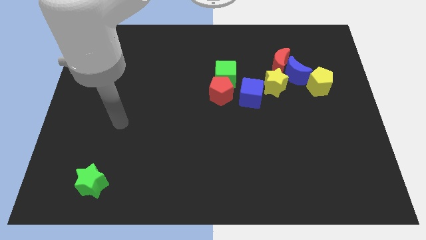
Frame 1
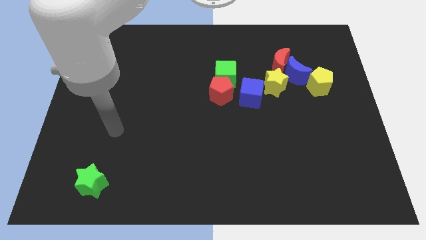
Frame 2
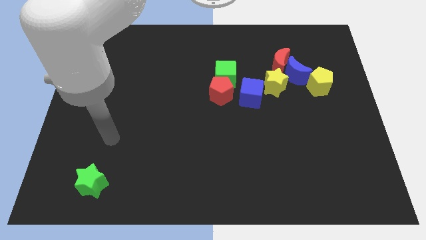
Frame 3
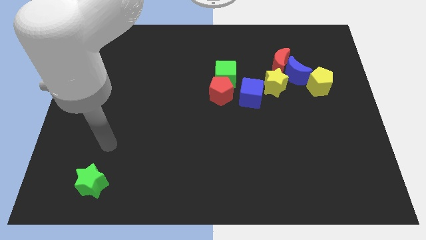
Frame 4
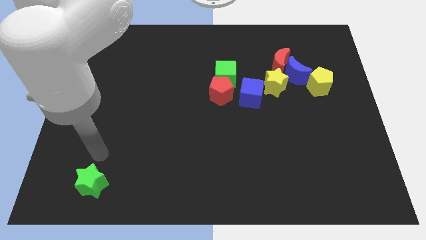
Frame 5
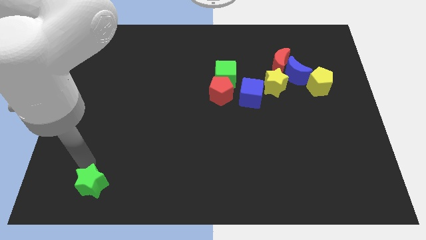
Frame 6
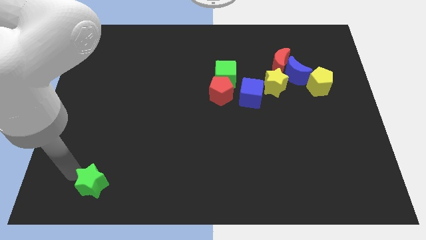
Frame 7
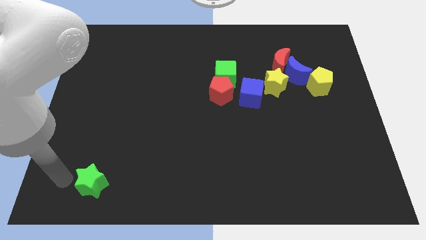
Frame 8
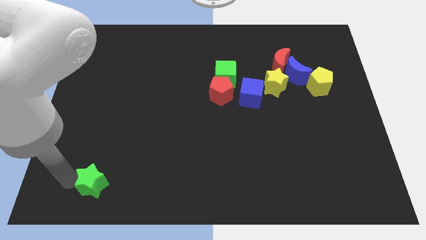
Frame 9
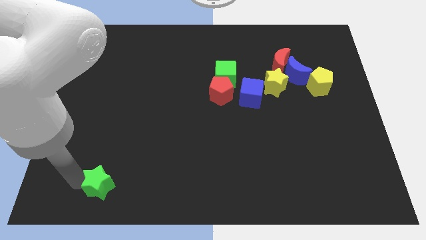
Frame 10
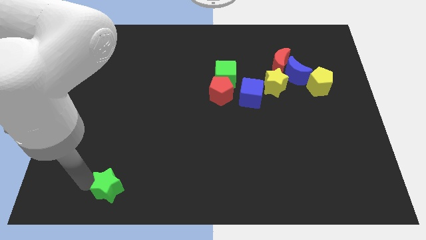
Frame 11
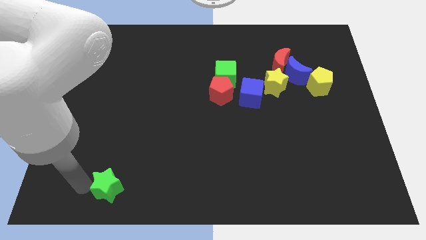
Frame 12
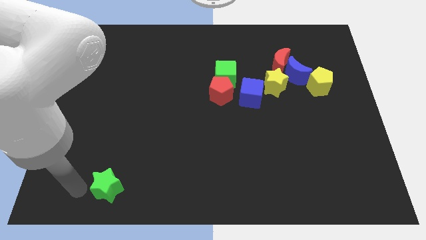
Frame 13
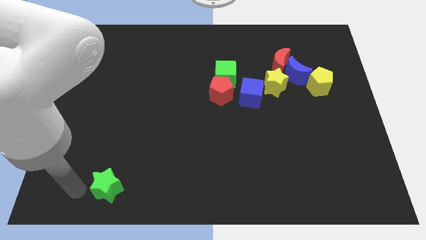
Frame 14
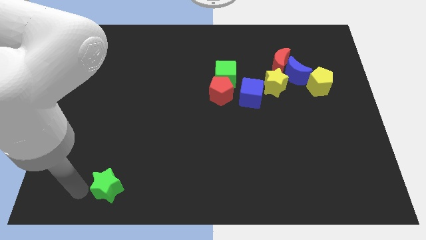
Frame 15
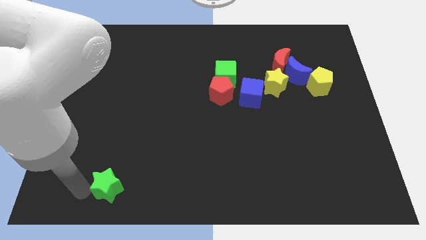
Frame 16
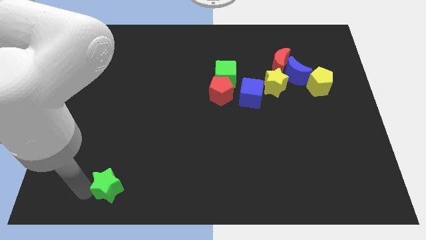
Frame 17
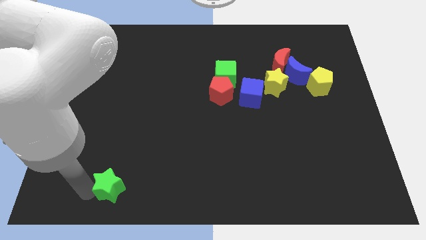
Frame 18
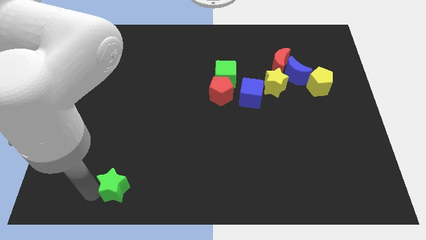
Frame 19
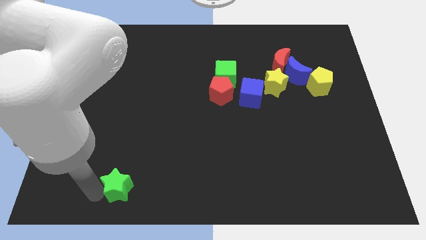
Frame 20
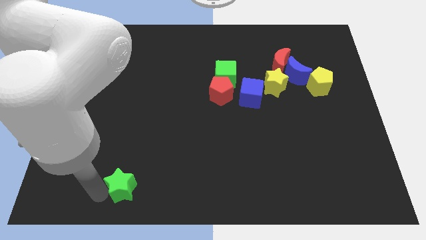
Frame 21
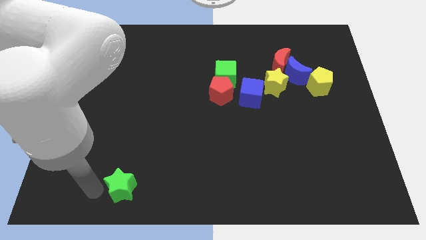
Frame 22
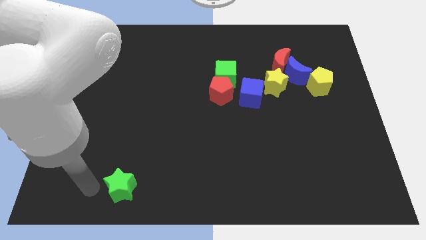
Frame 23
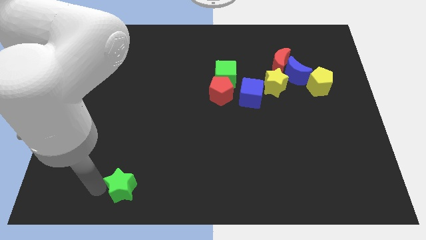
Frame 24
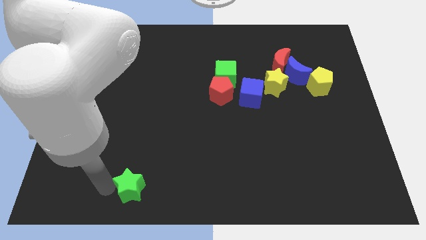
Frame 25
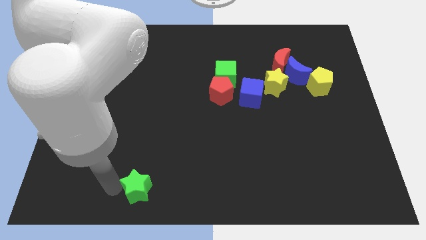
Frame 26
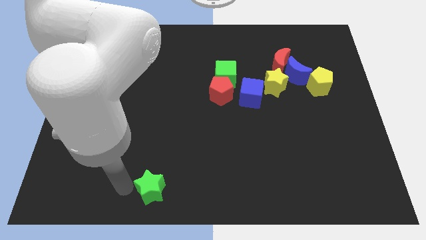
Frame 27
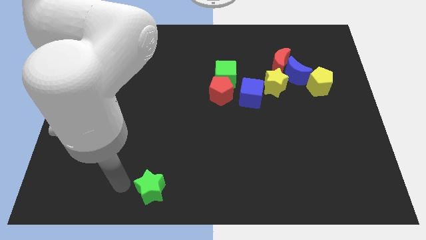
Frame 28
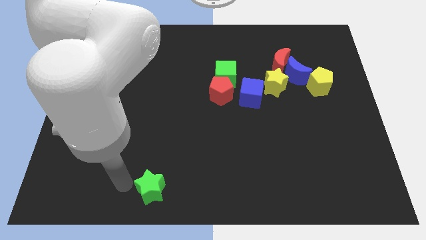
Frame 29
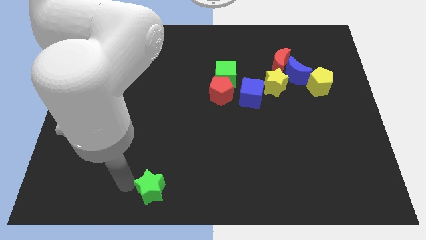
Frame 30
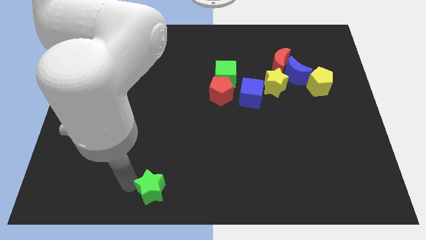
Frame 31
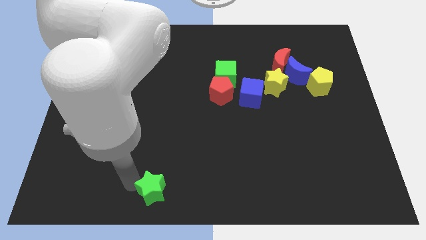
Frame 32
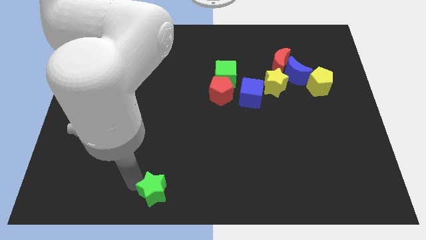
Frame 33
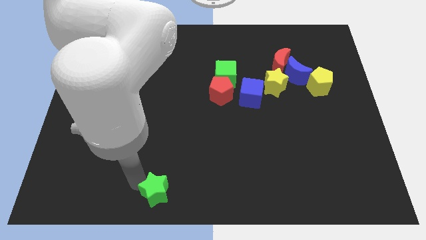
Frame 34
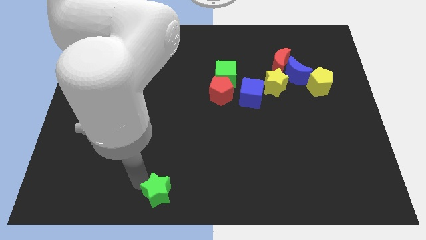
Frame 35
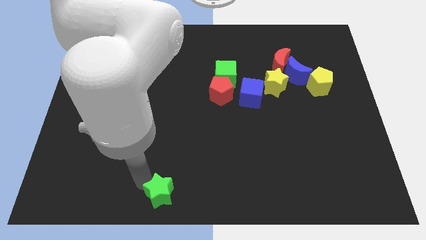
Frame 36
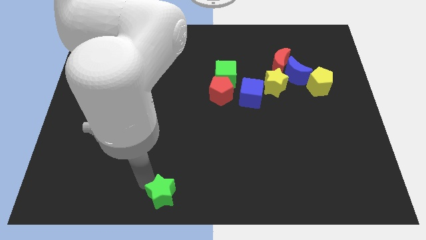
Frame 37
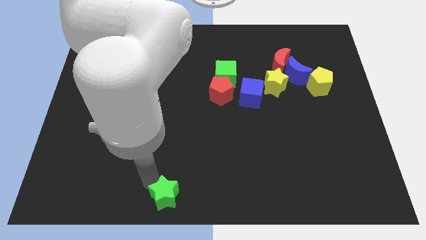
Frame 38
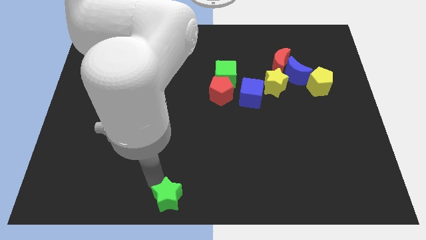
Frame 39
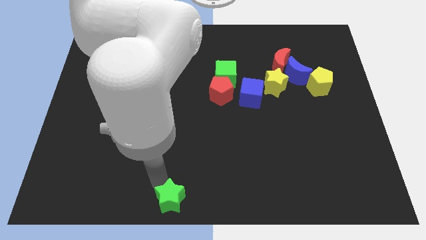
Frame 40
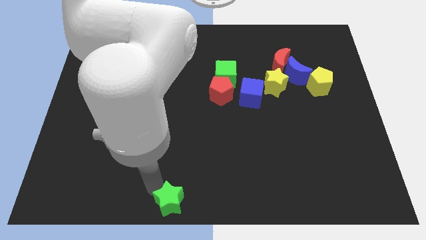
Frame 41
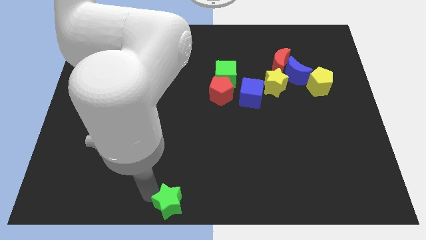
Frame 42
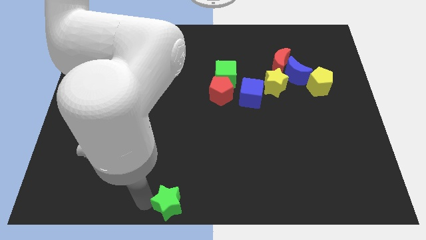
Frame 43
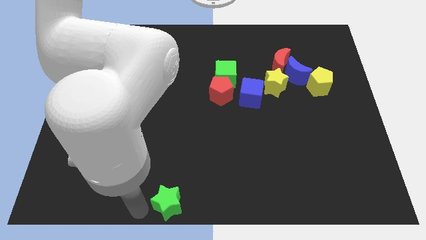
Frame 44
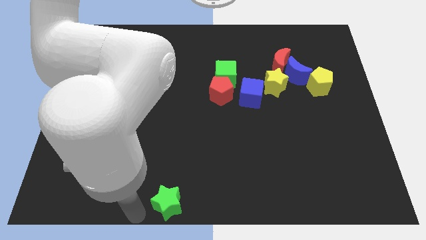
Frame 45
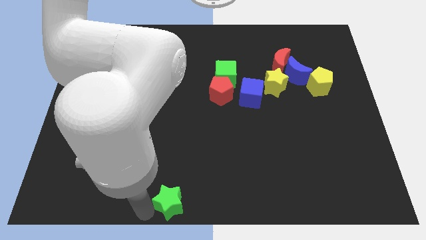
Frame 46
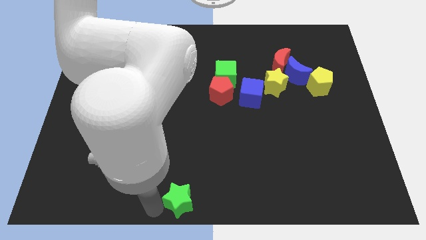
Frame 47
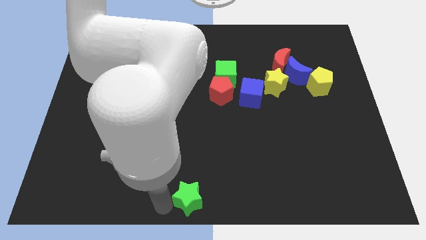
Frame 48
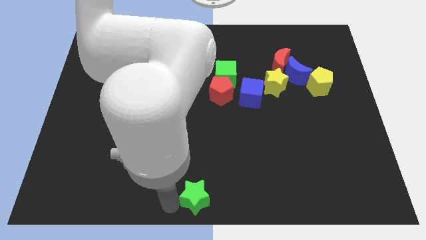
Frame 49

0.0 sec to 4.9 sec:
push the green star to the right

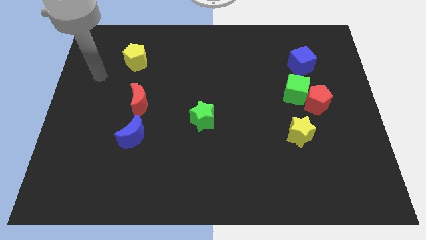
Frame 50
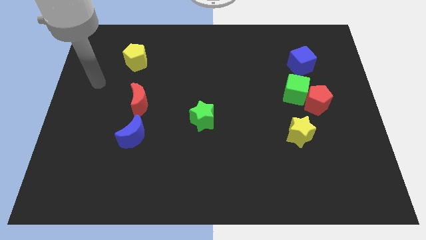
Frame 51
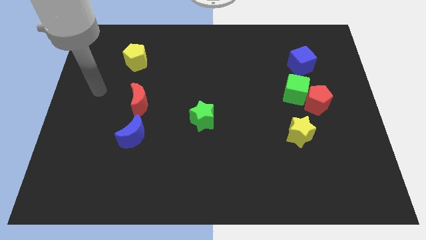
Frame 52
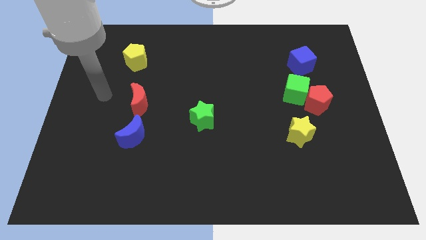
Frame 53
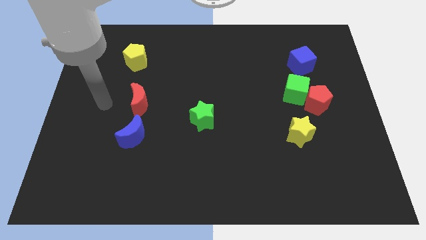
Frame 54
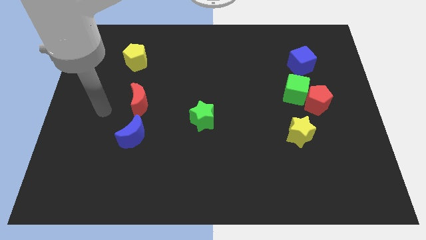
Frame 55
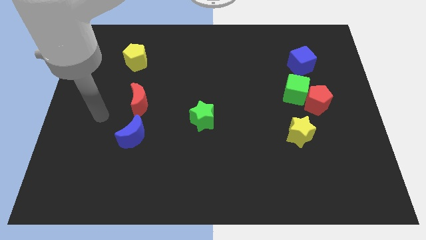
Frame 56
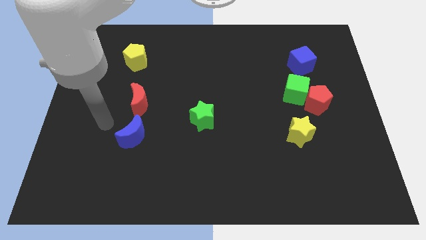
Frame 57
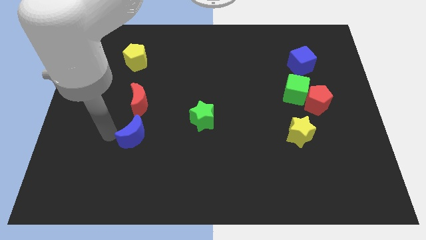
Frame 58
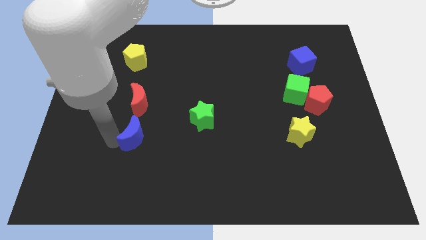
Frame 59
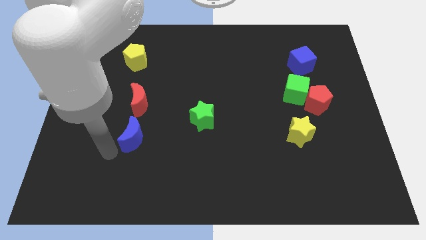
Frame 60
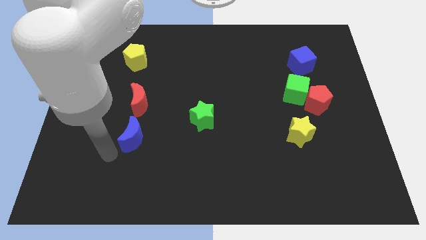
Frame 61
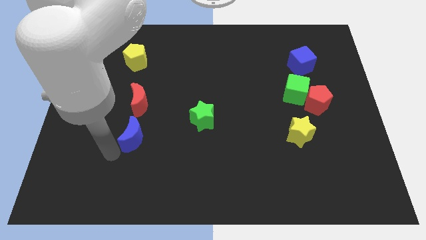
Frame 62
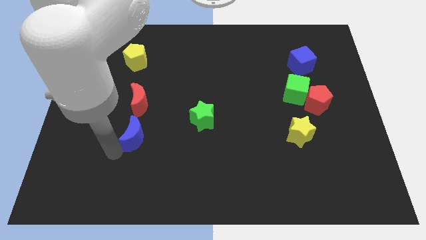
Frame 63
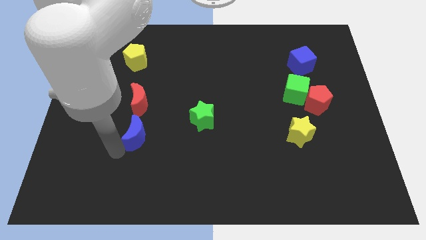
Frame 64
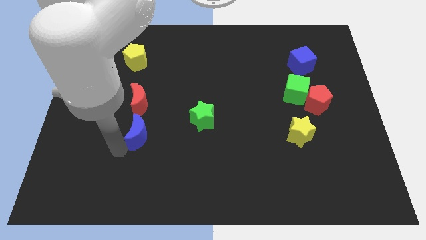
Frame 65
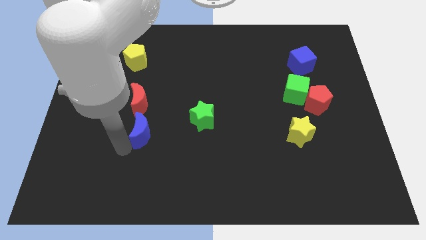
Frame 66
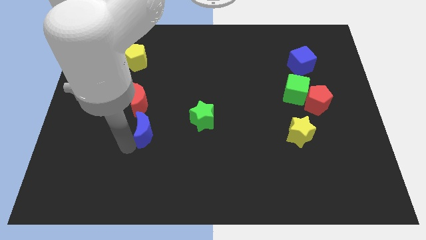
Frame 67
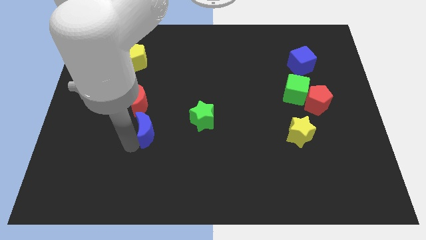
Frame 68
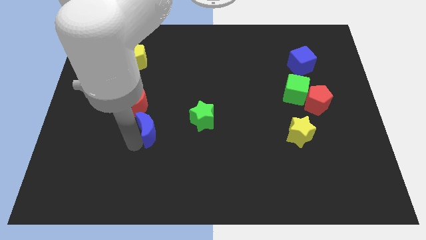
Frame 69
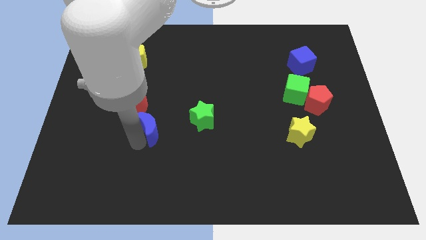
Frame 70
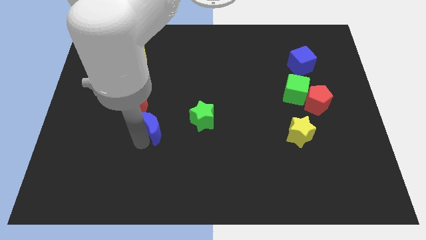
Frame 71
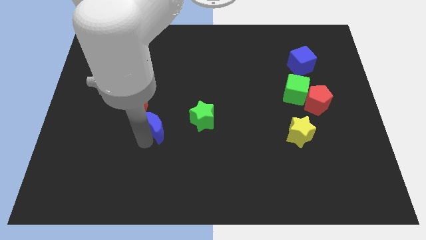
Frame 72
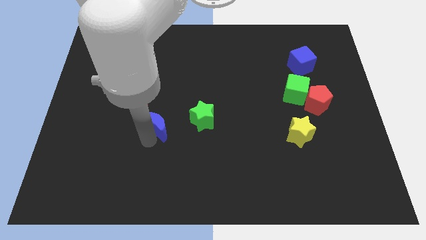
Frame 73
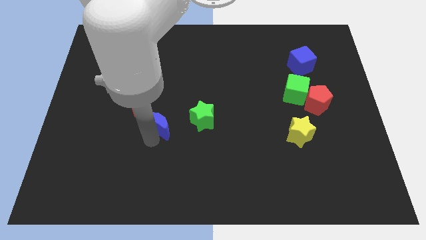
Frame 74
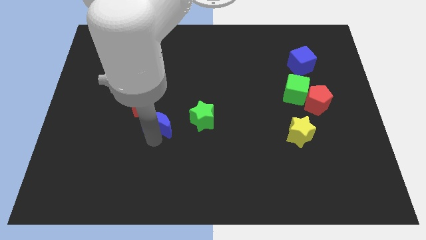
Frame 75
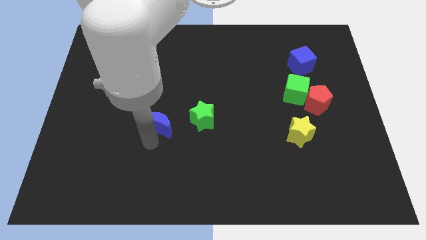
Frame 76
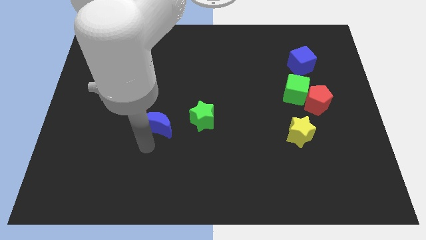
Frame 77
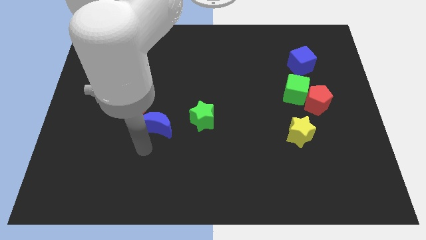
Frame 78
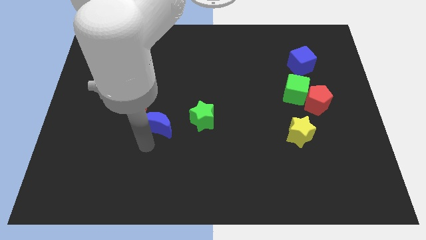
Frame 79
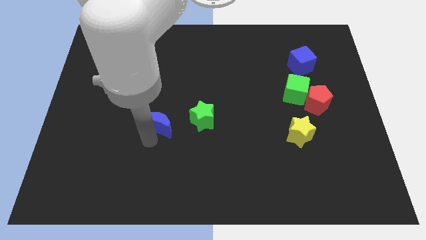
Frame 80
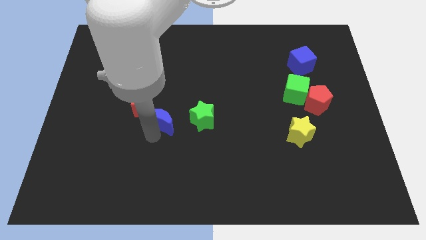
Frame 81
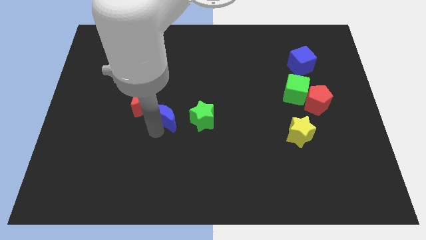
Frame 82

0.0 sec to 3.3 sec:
slide the blue moon up and right somewhat
